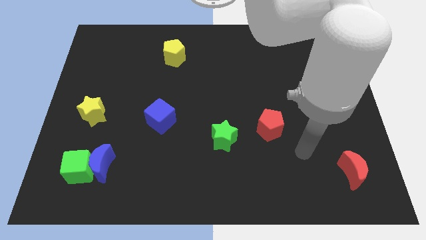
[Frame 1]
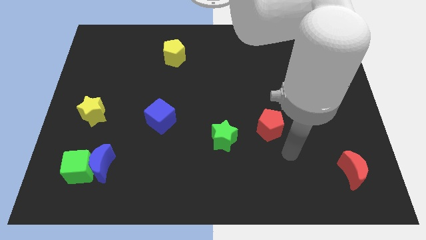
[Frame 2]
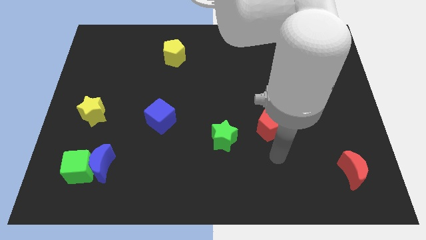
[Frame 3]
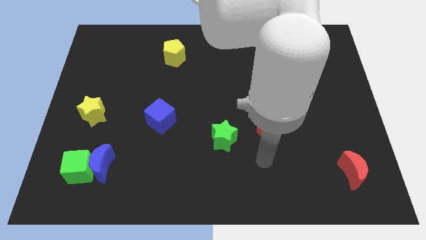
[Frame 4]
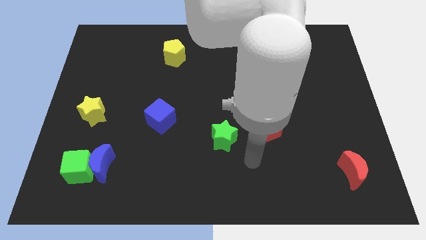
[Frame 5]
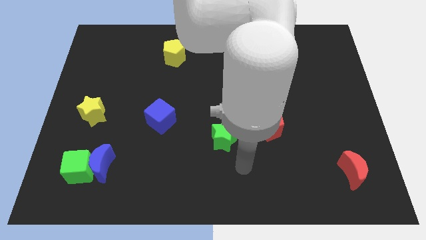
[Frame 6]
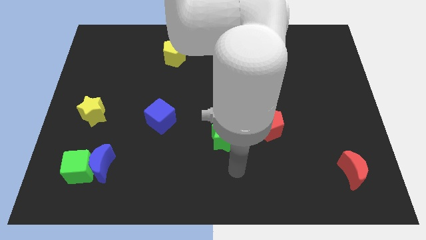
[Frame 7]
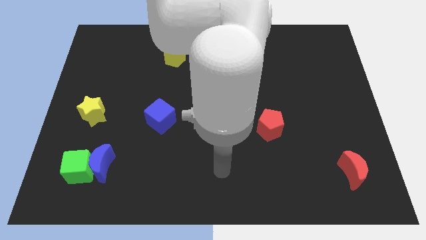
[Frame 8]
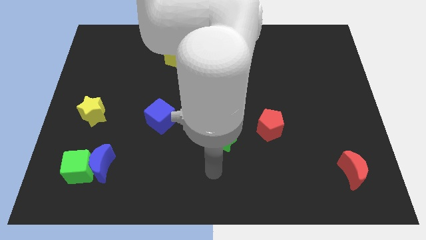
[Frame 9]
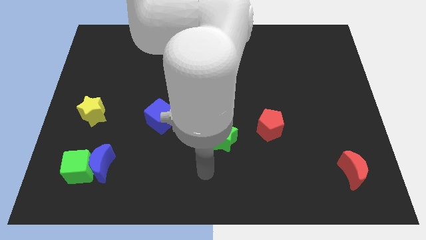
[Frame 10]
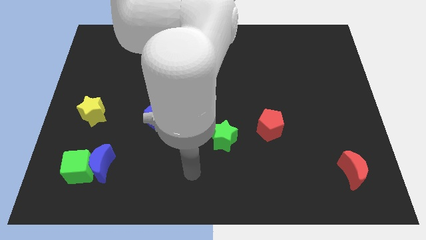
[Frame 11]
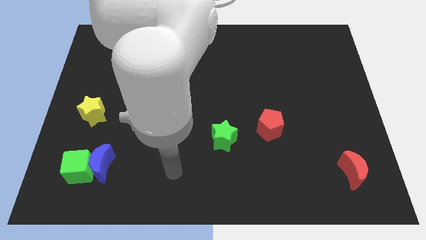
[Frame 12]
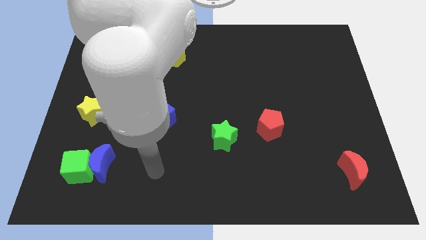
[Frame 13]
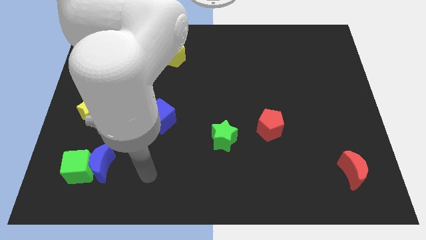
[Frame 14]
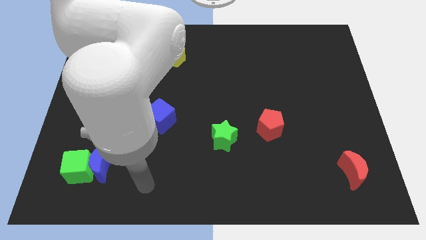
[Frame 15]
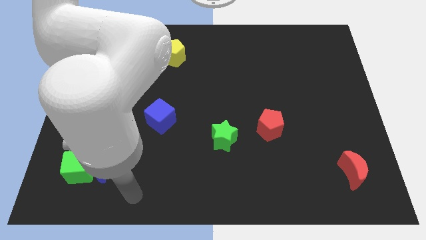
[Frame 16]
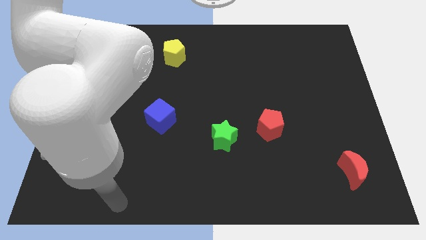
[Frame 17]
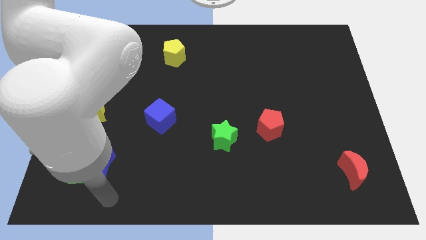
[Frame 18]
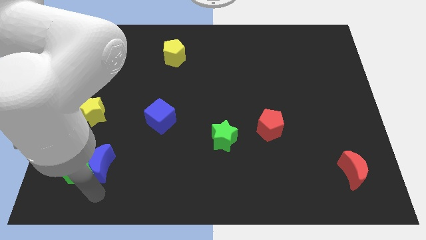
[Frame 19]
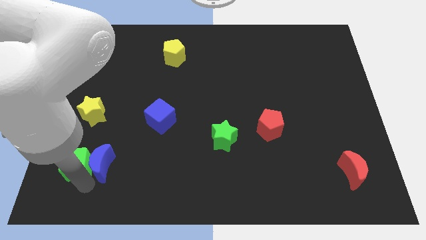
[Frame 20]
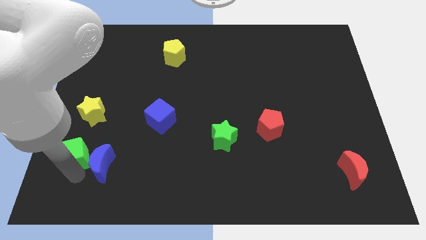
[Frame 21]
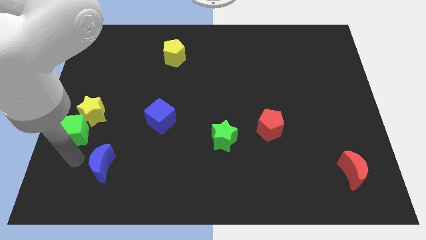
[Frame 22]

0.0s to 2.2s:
pull the blue moon apart from the green cube

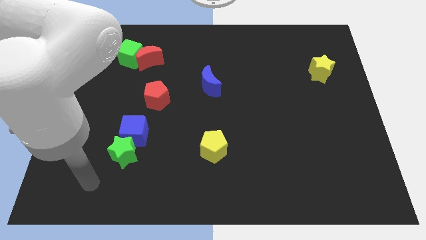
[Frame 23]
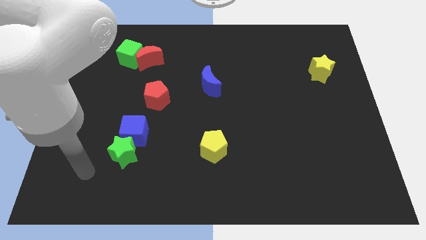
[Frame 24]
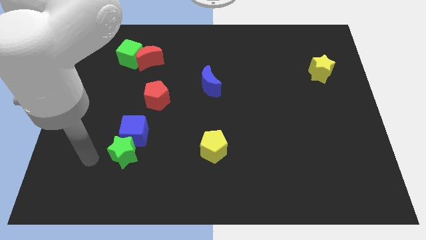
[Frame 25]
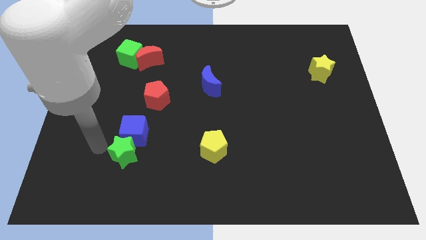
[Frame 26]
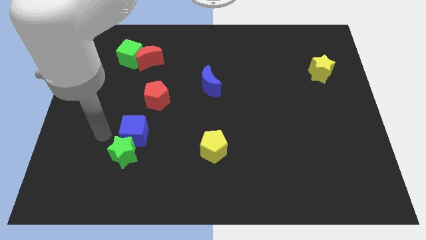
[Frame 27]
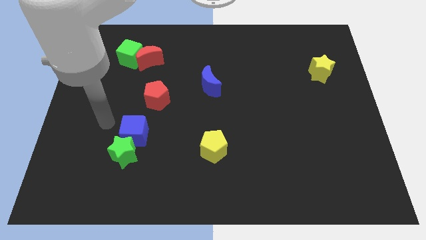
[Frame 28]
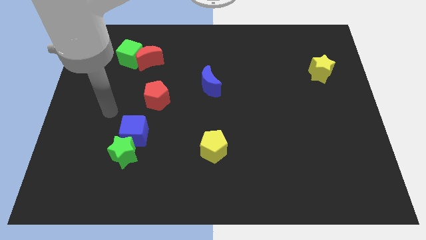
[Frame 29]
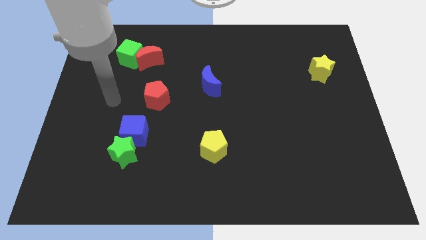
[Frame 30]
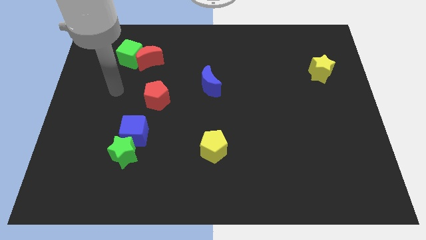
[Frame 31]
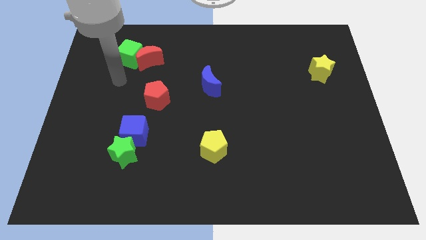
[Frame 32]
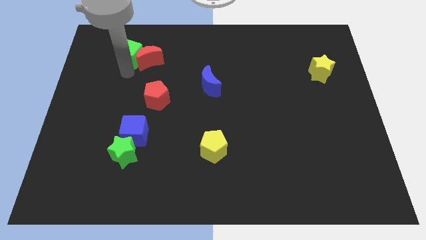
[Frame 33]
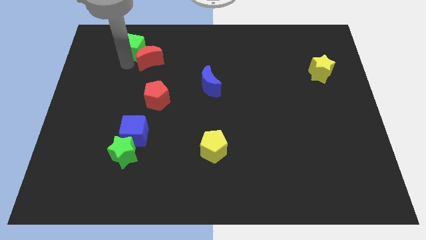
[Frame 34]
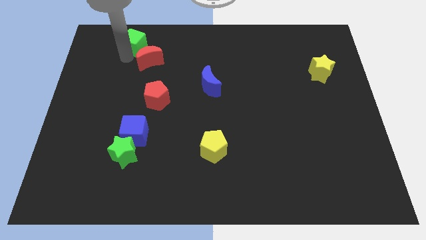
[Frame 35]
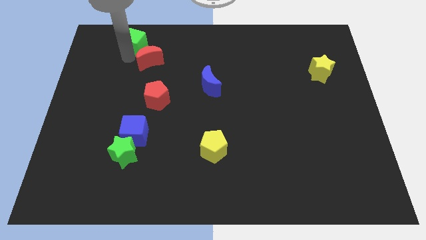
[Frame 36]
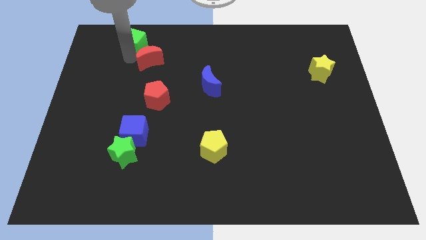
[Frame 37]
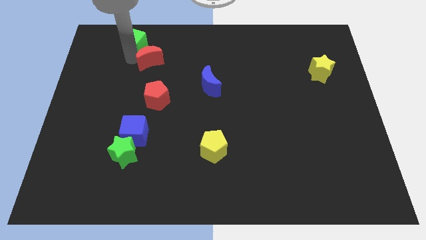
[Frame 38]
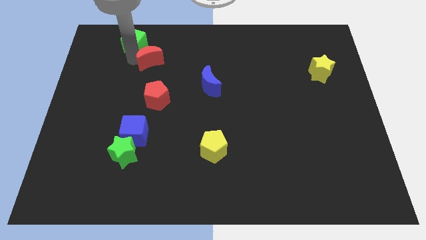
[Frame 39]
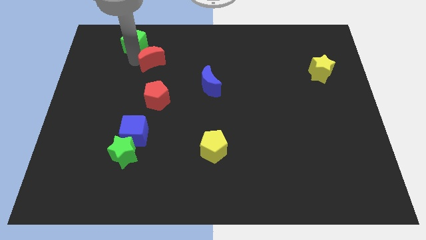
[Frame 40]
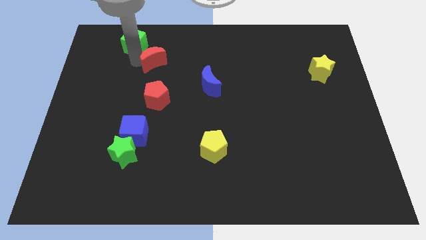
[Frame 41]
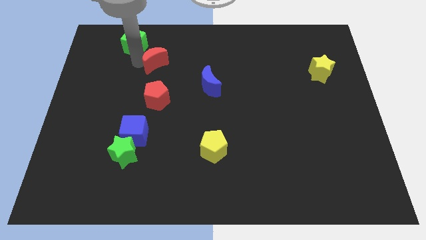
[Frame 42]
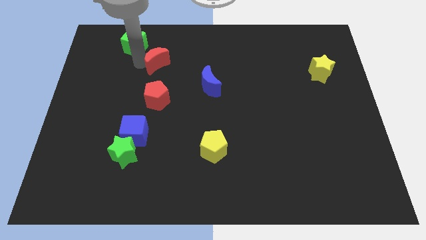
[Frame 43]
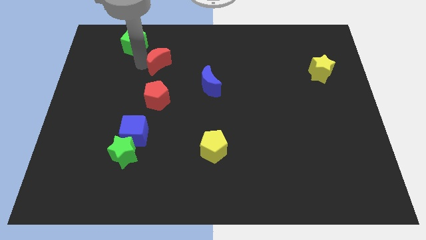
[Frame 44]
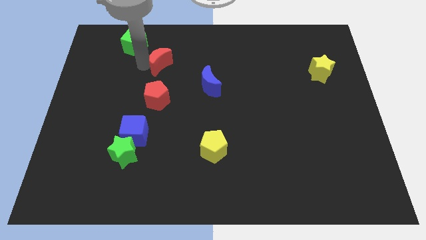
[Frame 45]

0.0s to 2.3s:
separate the red moon from the green cube

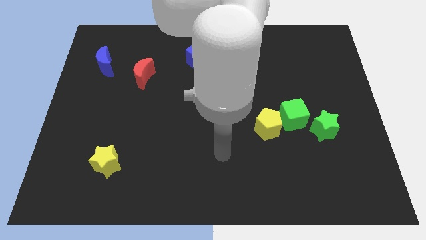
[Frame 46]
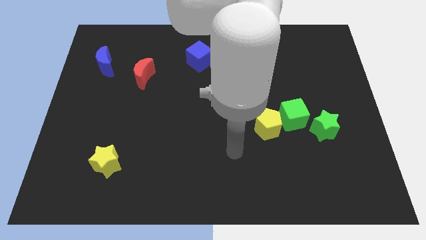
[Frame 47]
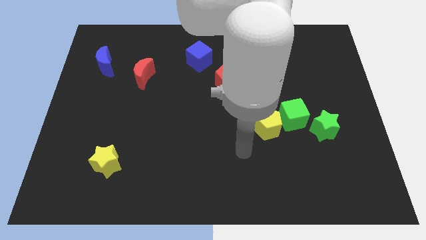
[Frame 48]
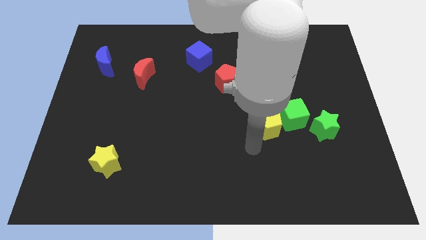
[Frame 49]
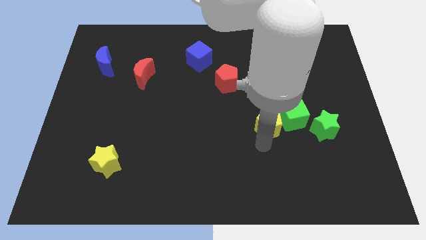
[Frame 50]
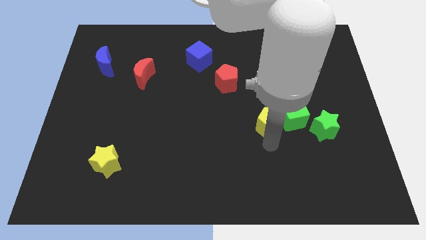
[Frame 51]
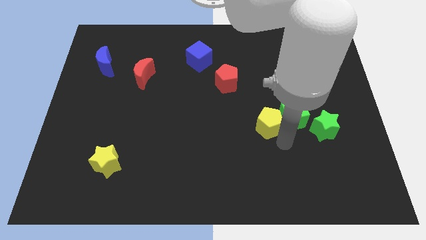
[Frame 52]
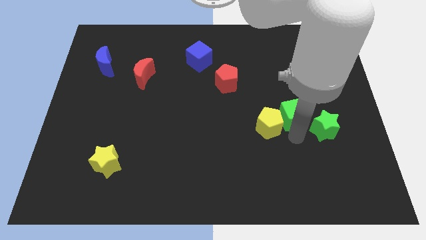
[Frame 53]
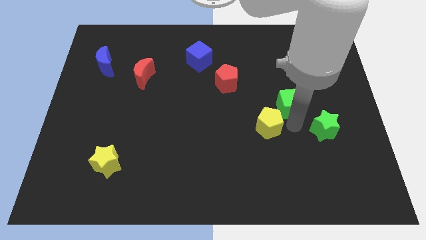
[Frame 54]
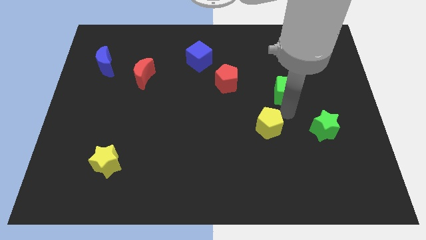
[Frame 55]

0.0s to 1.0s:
pull the yellow pentagon apart from the green cube

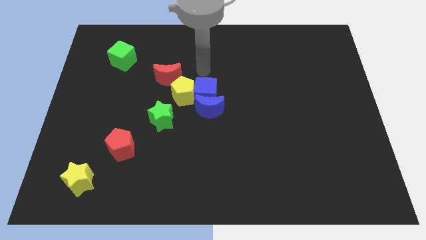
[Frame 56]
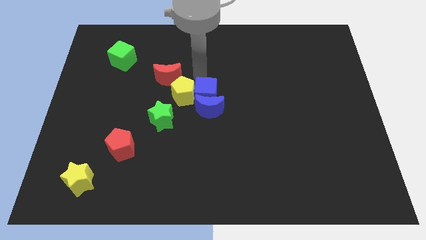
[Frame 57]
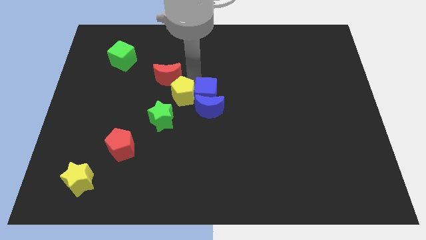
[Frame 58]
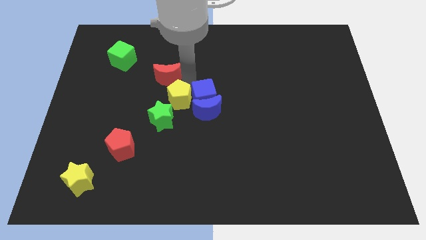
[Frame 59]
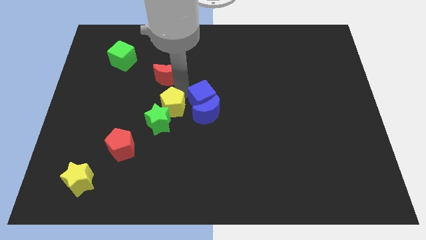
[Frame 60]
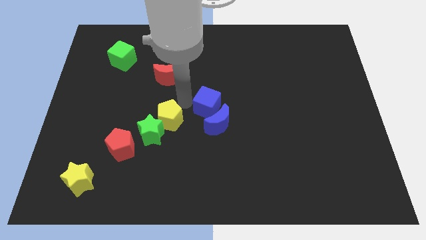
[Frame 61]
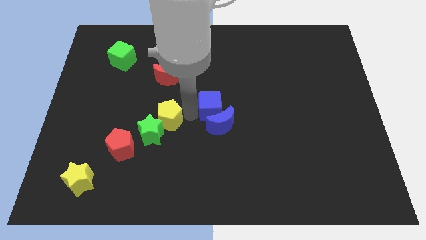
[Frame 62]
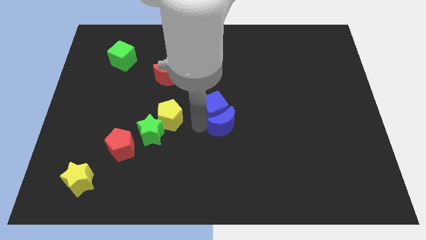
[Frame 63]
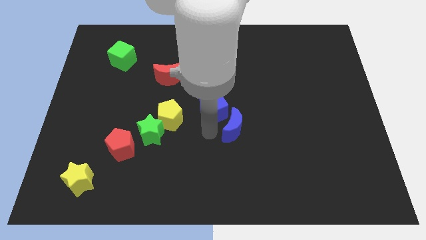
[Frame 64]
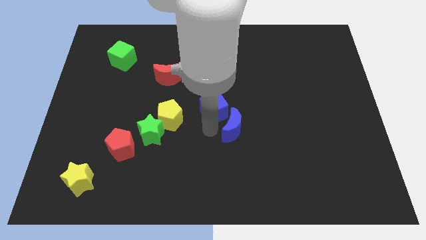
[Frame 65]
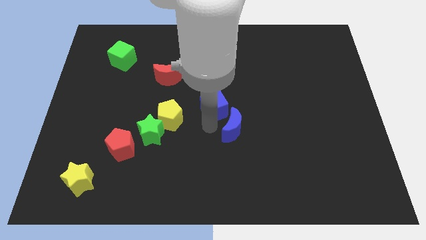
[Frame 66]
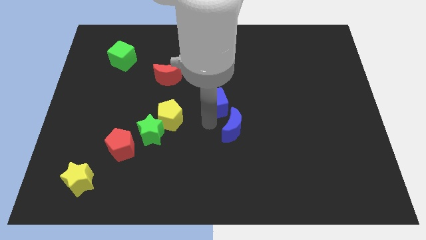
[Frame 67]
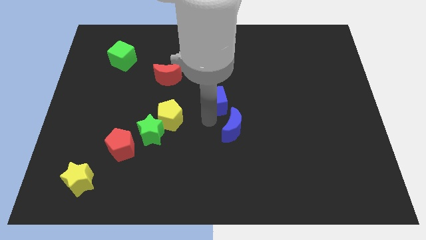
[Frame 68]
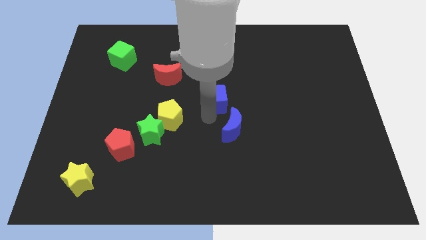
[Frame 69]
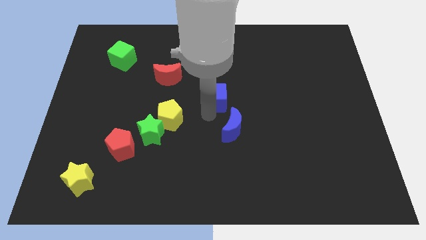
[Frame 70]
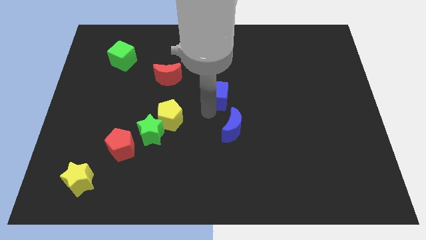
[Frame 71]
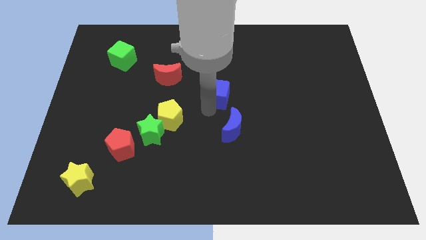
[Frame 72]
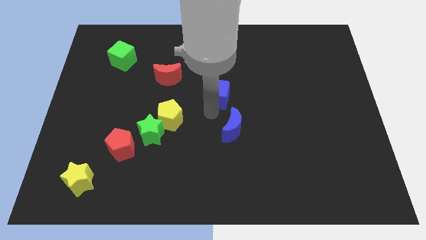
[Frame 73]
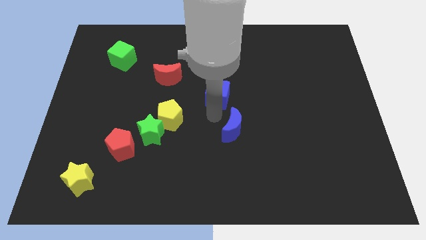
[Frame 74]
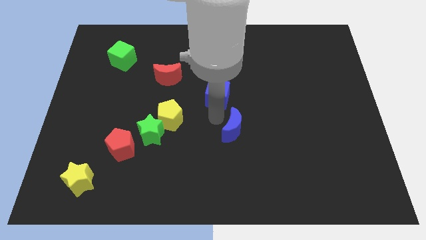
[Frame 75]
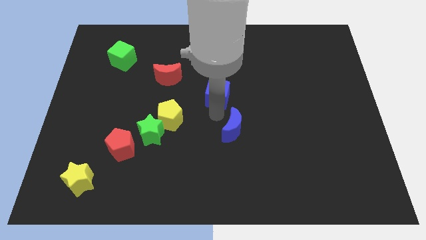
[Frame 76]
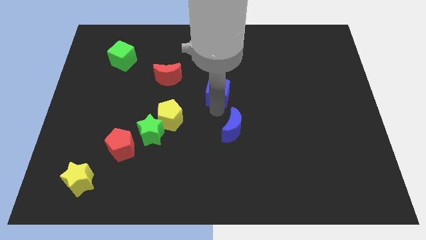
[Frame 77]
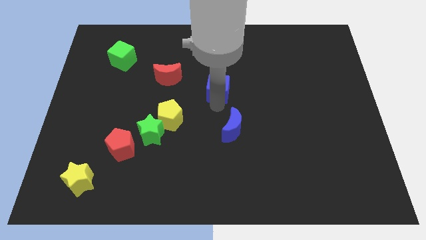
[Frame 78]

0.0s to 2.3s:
pull the blue cube apart from the blue moon and yellow pentagon

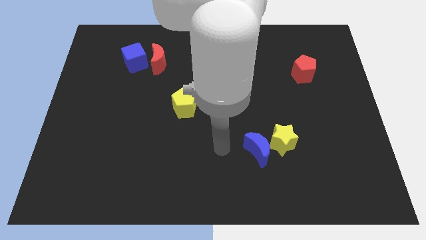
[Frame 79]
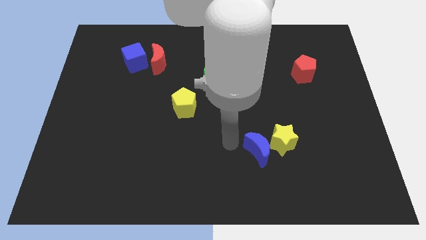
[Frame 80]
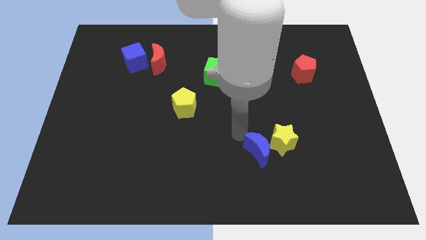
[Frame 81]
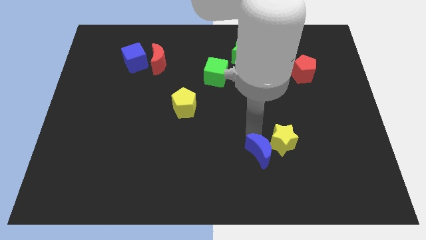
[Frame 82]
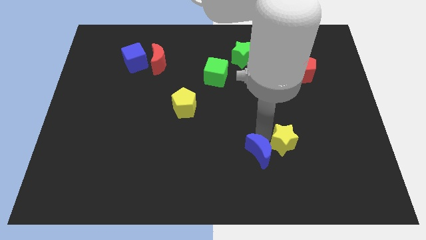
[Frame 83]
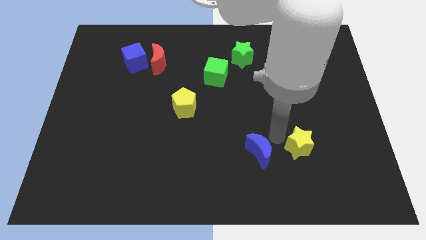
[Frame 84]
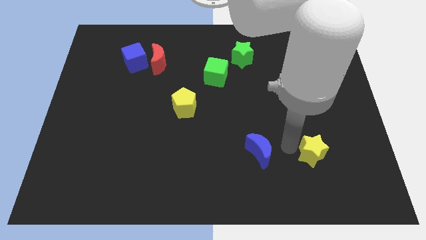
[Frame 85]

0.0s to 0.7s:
pull the blue moon apart from the yellow star

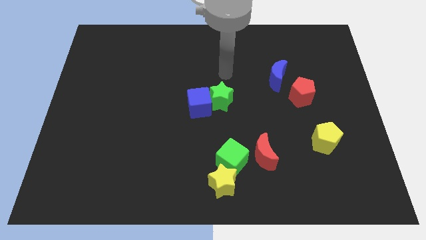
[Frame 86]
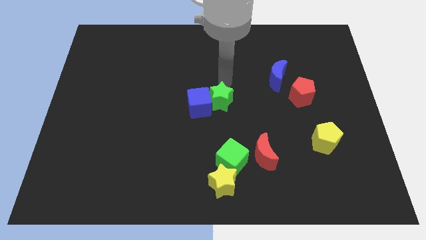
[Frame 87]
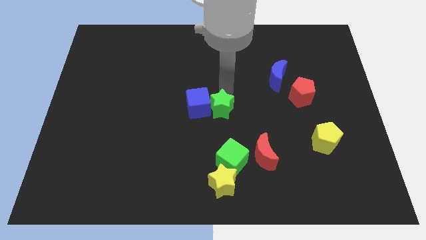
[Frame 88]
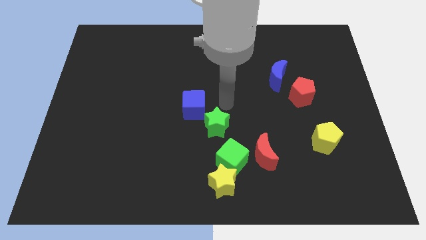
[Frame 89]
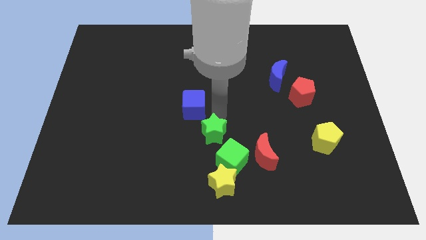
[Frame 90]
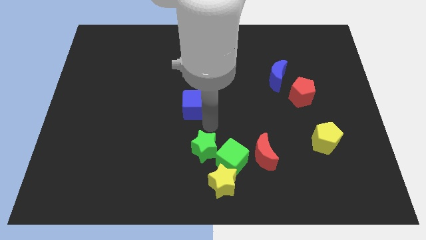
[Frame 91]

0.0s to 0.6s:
pull the blue cube apart from the green star

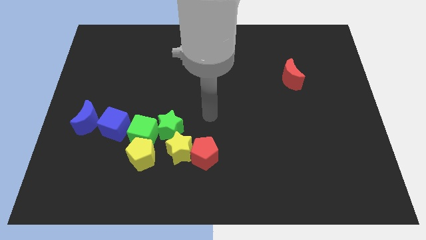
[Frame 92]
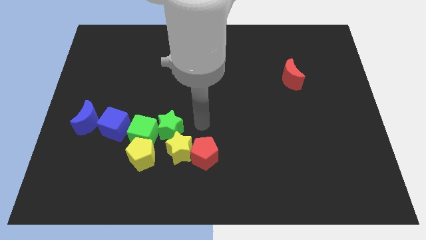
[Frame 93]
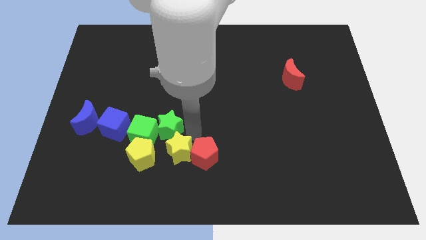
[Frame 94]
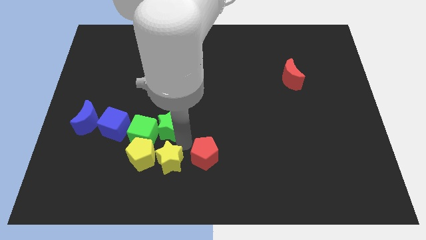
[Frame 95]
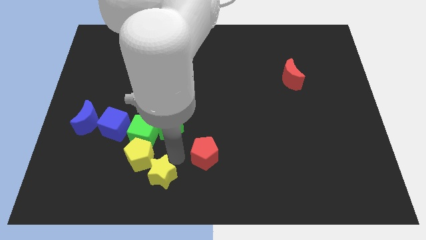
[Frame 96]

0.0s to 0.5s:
pull the red pentagon apart from the yellow star
